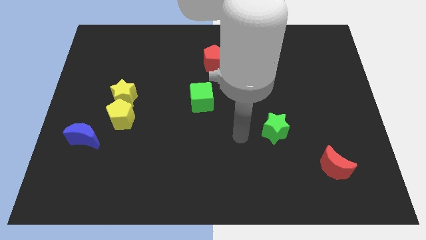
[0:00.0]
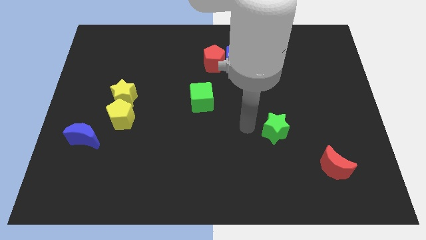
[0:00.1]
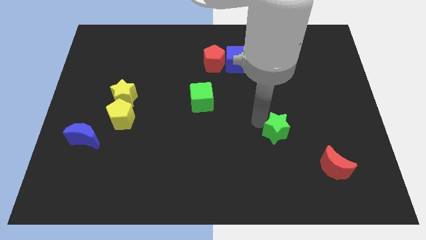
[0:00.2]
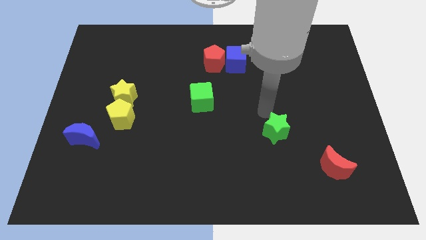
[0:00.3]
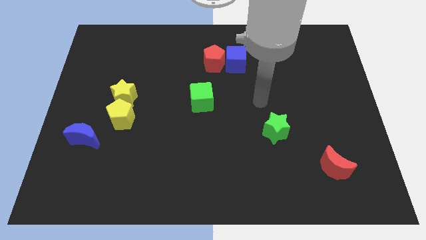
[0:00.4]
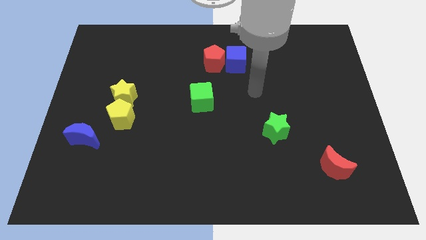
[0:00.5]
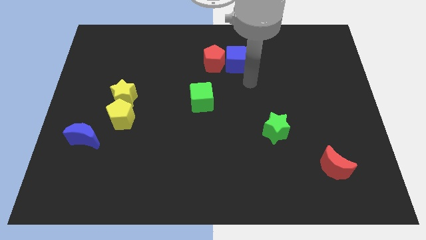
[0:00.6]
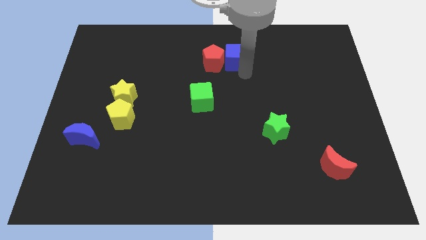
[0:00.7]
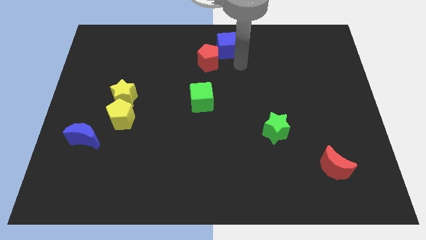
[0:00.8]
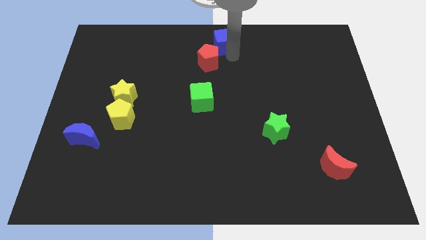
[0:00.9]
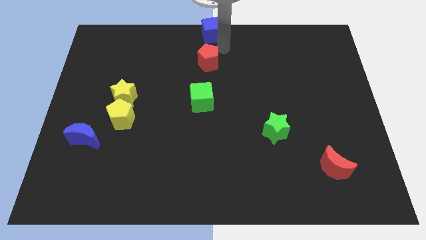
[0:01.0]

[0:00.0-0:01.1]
separate the red pentagon from the blue cube

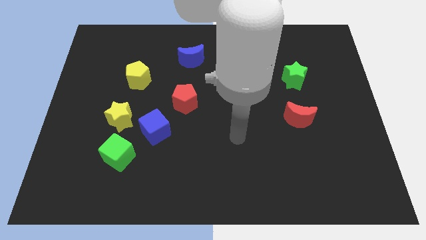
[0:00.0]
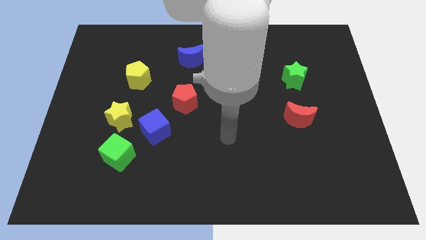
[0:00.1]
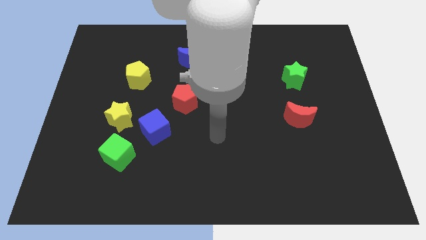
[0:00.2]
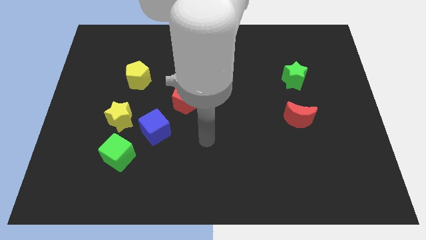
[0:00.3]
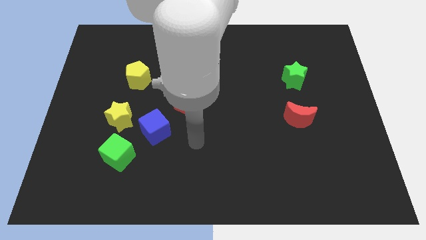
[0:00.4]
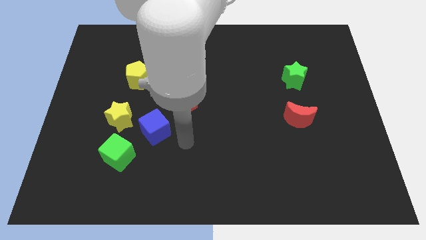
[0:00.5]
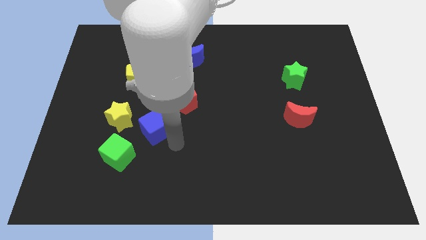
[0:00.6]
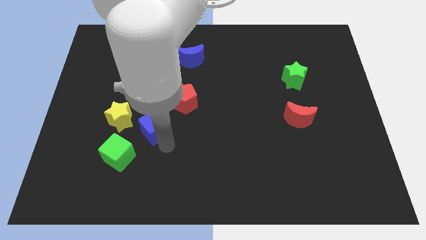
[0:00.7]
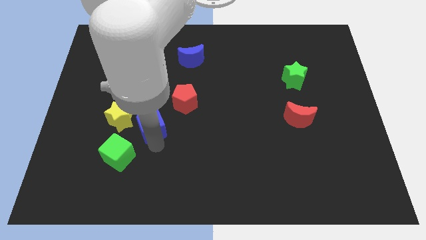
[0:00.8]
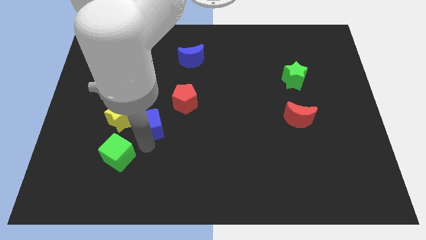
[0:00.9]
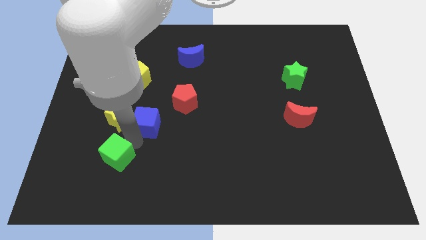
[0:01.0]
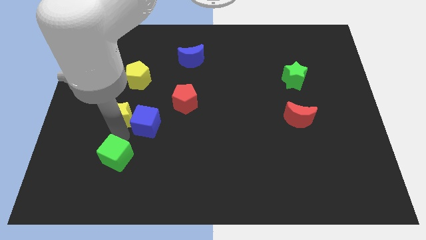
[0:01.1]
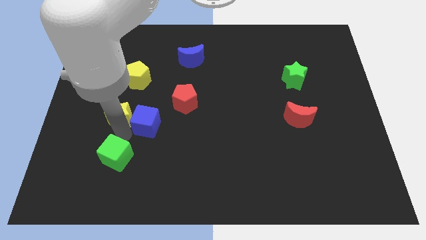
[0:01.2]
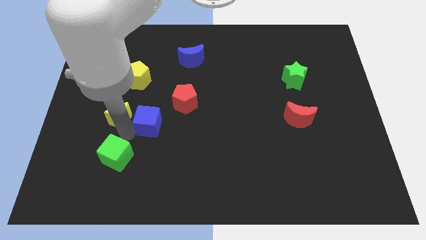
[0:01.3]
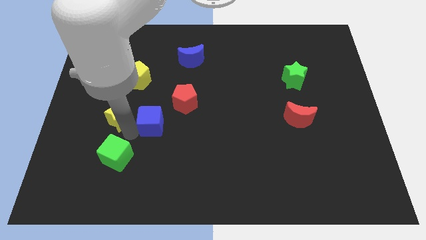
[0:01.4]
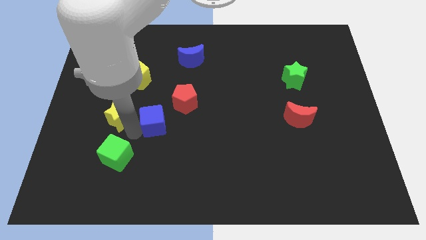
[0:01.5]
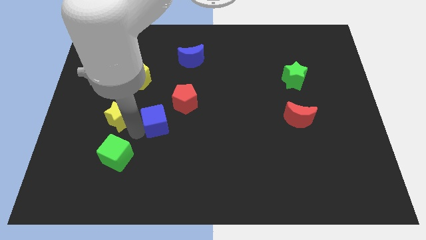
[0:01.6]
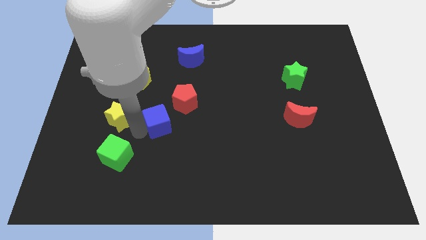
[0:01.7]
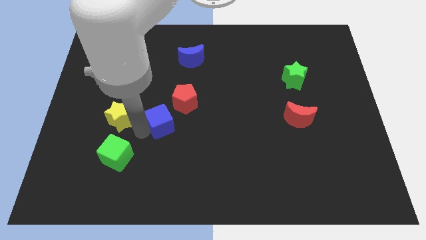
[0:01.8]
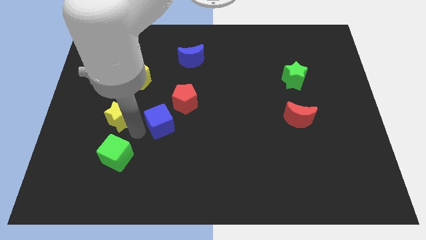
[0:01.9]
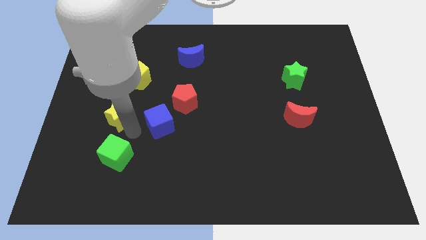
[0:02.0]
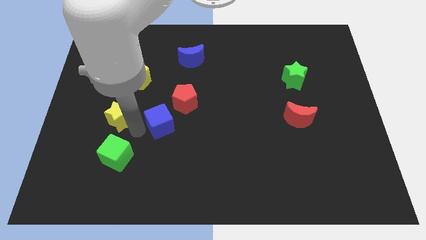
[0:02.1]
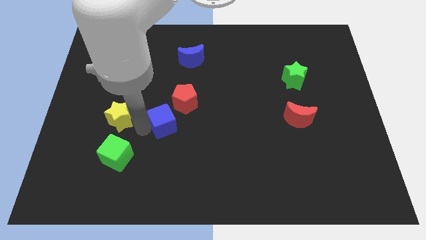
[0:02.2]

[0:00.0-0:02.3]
separate the blue cube from the yellow star and green cube

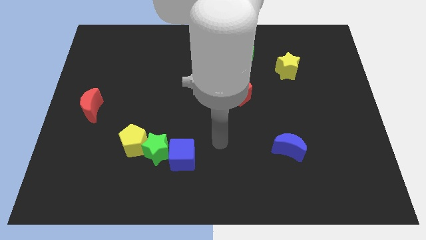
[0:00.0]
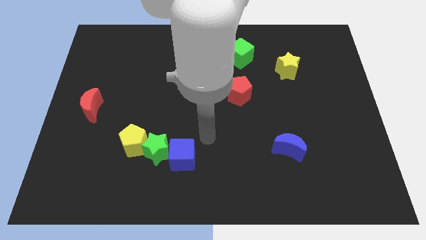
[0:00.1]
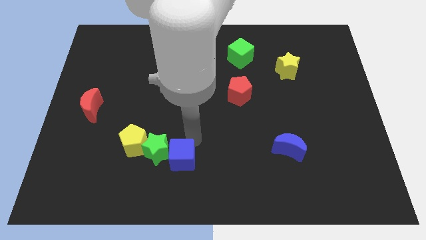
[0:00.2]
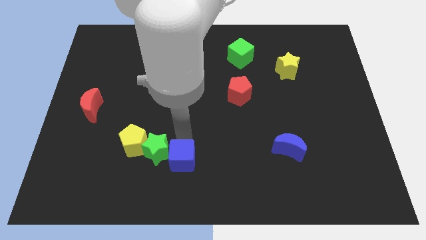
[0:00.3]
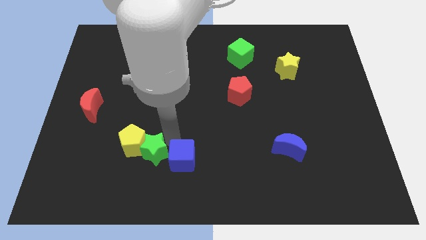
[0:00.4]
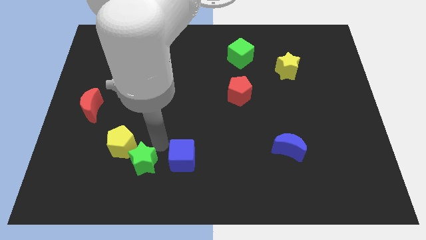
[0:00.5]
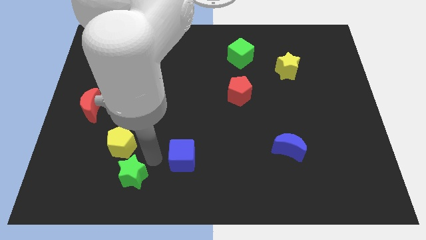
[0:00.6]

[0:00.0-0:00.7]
move the blue cube away from the green star

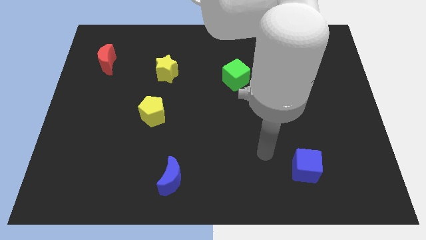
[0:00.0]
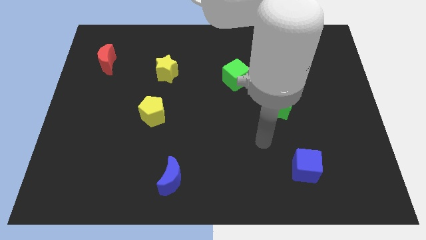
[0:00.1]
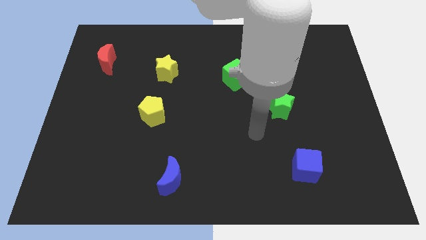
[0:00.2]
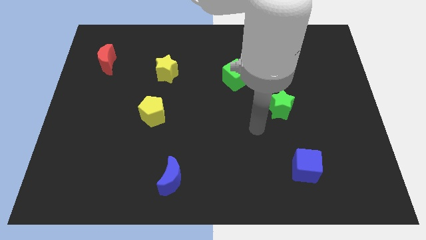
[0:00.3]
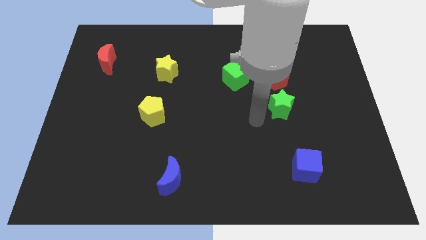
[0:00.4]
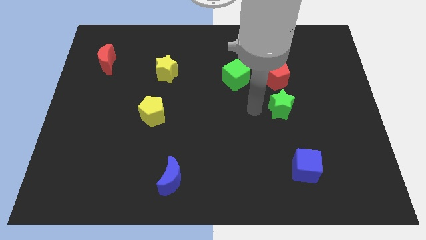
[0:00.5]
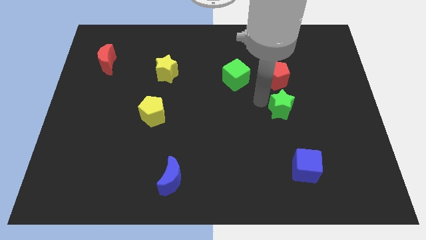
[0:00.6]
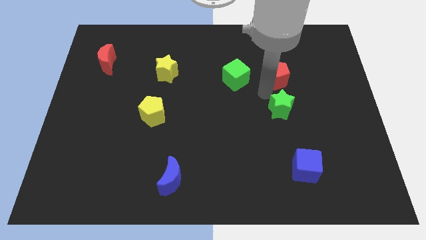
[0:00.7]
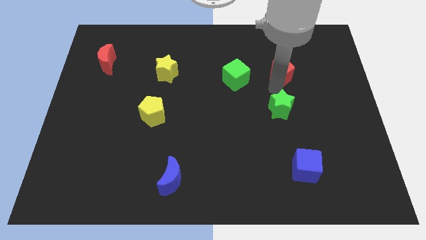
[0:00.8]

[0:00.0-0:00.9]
pull the green star apart from the red pentagon

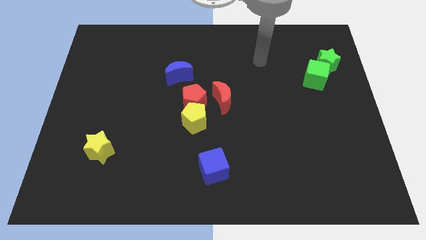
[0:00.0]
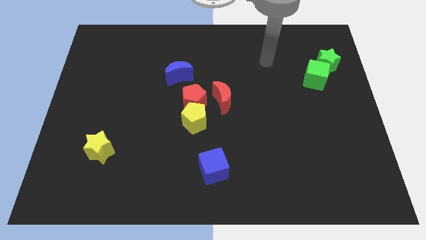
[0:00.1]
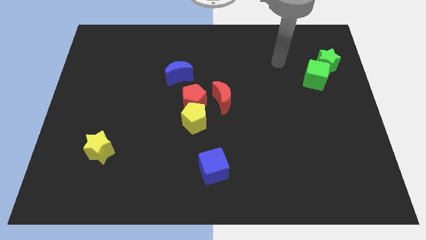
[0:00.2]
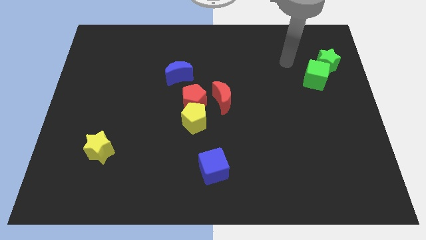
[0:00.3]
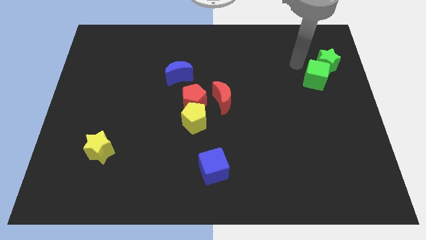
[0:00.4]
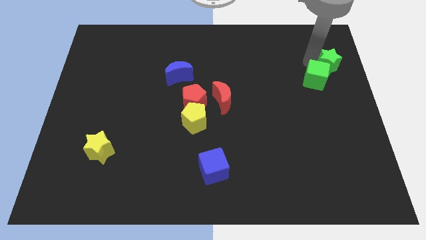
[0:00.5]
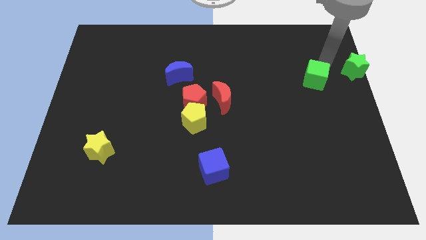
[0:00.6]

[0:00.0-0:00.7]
separate the green cube from the green star

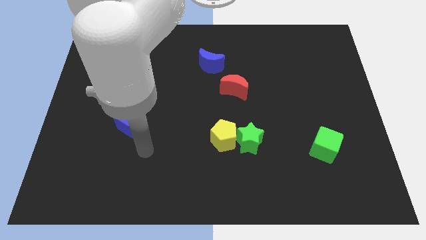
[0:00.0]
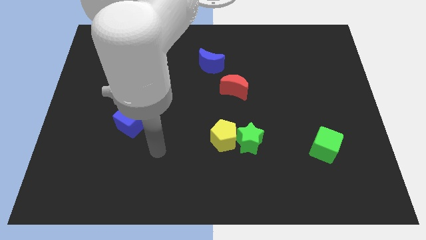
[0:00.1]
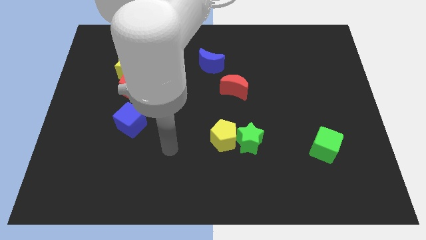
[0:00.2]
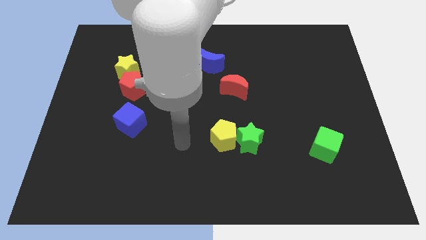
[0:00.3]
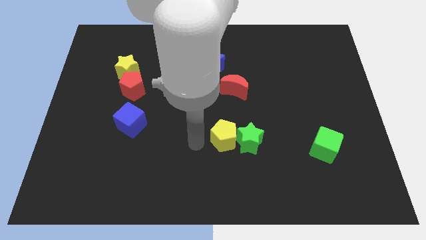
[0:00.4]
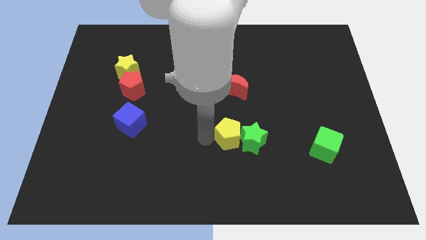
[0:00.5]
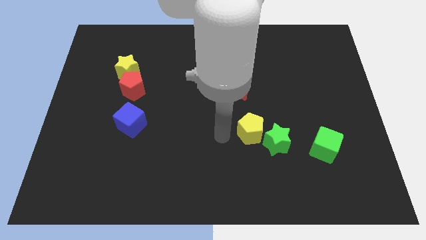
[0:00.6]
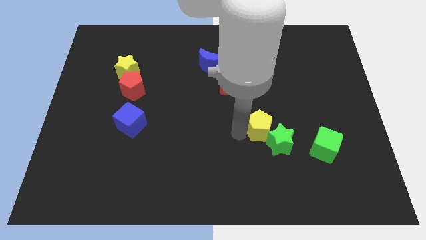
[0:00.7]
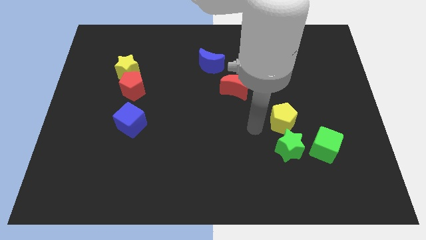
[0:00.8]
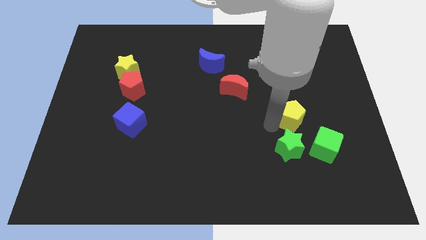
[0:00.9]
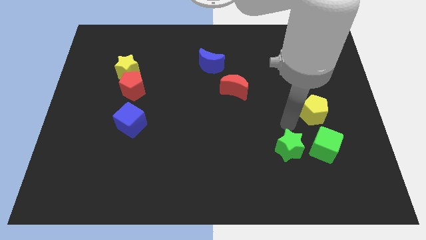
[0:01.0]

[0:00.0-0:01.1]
separate the green star from the yellow pentagon

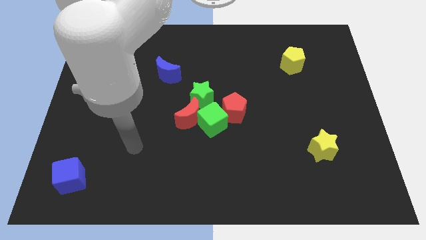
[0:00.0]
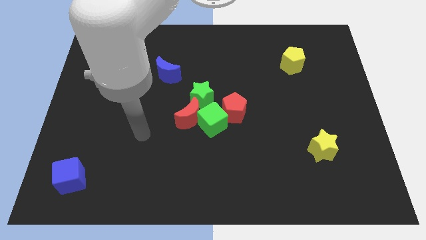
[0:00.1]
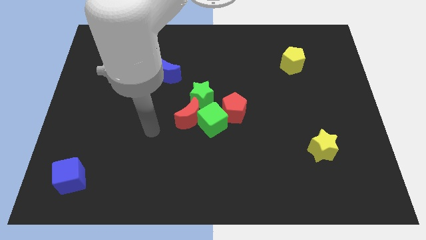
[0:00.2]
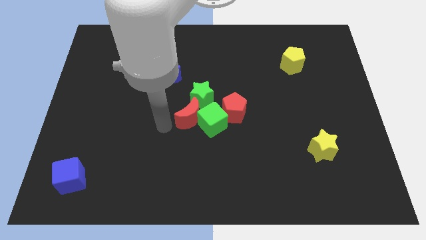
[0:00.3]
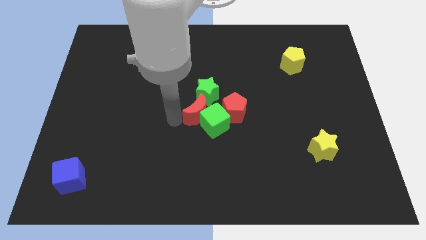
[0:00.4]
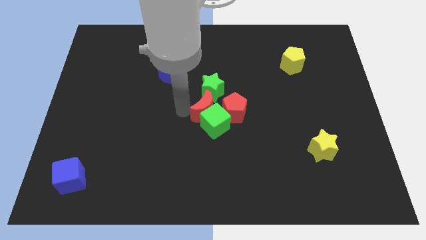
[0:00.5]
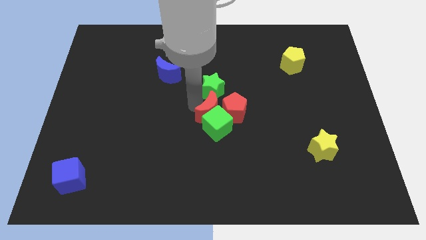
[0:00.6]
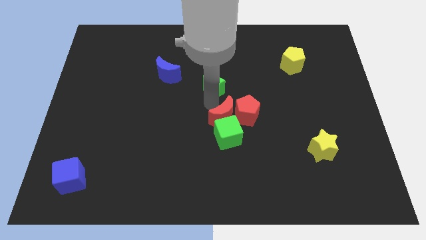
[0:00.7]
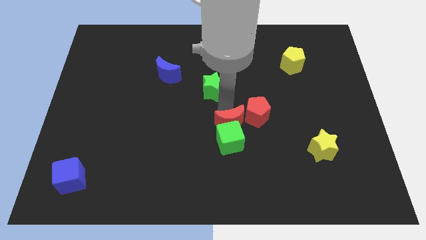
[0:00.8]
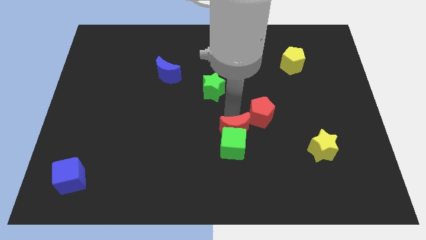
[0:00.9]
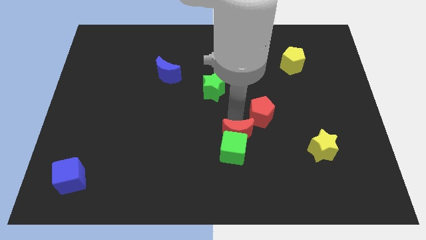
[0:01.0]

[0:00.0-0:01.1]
pull the green cube apart from the red moon, red pentagon, and green star

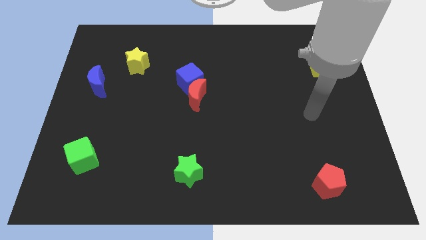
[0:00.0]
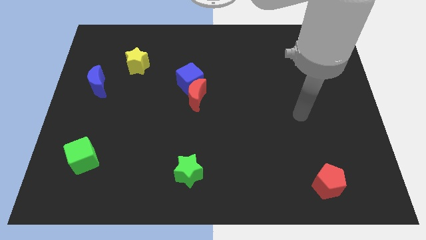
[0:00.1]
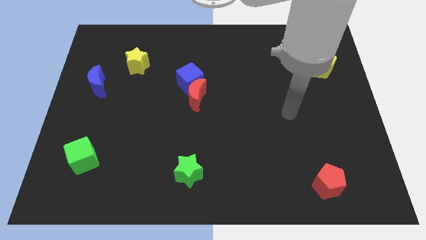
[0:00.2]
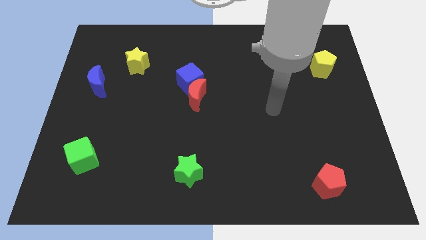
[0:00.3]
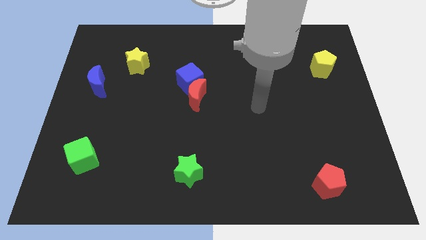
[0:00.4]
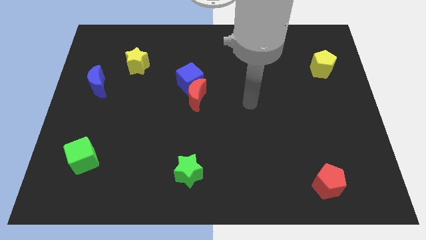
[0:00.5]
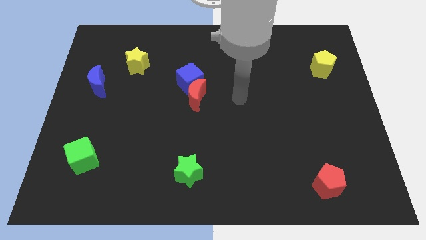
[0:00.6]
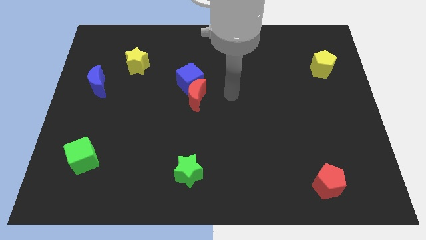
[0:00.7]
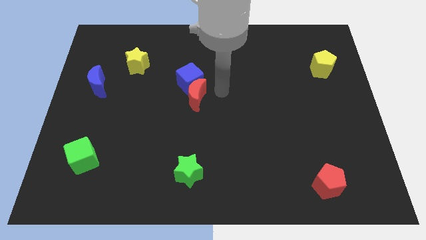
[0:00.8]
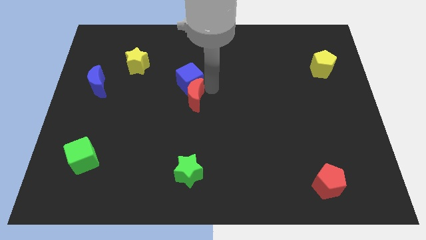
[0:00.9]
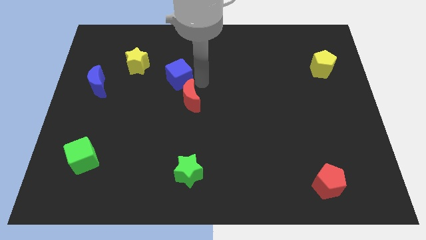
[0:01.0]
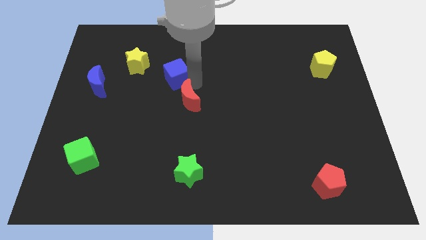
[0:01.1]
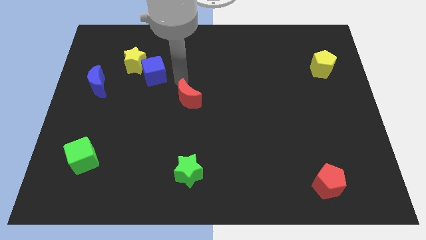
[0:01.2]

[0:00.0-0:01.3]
pull the red moon apart from the blue cube

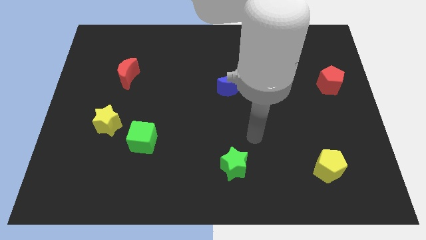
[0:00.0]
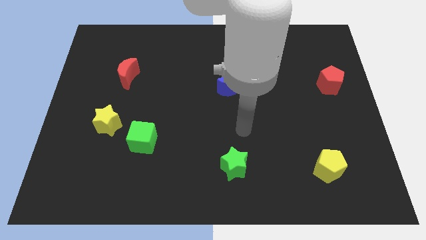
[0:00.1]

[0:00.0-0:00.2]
move the green cube away from the yellow star
